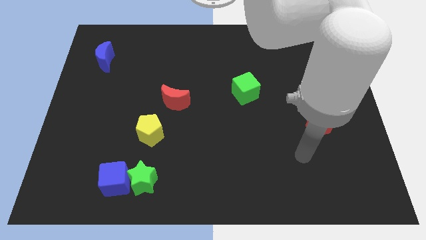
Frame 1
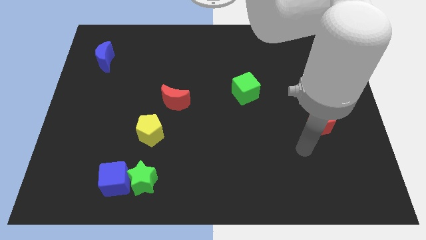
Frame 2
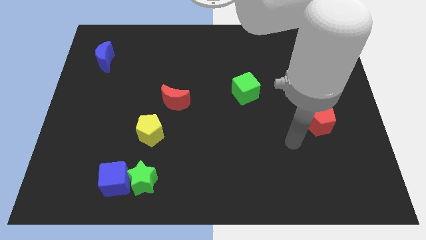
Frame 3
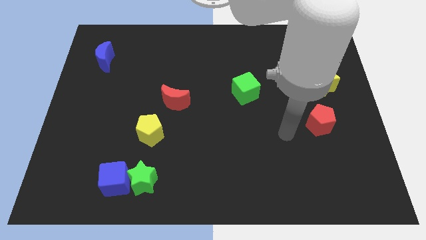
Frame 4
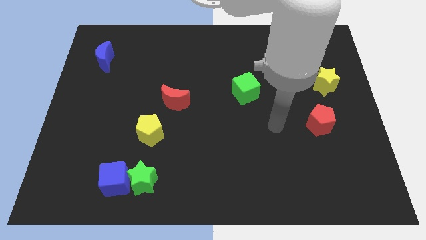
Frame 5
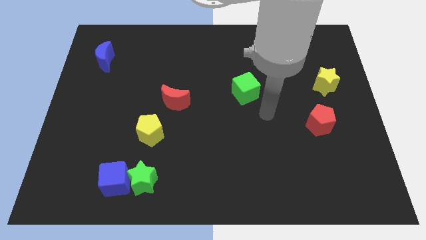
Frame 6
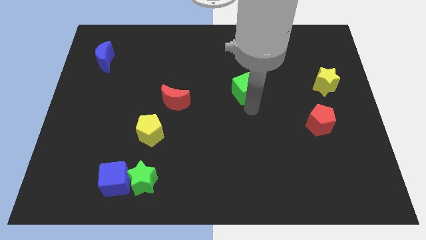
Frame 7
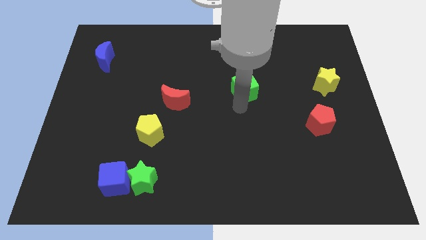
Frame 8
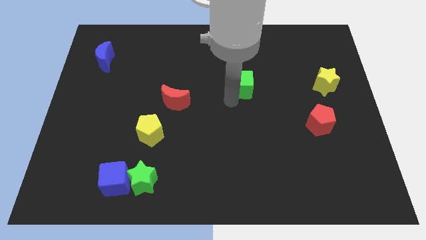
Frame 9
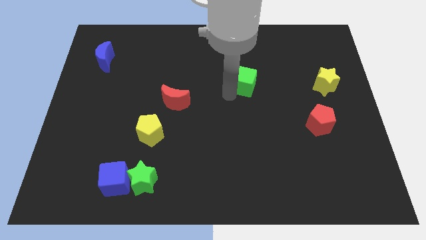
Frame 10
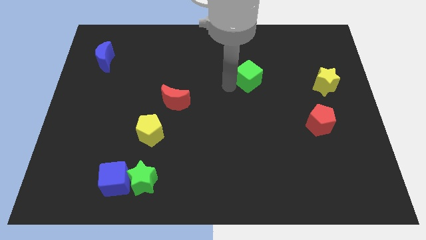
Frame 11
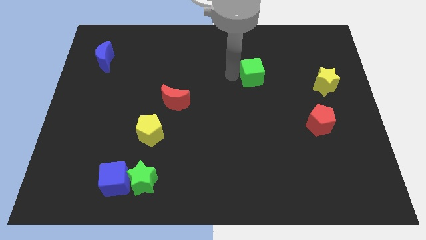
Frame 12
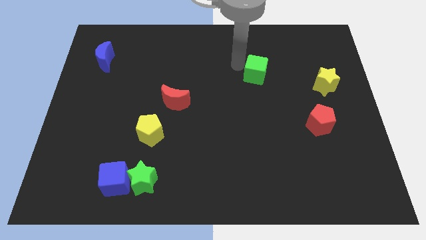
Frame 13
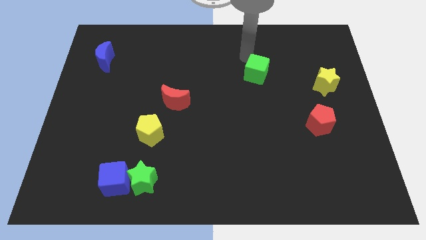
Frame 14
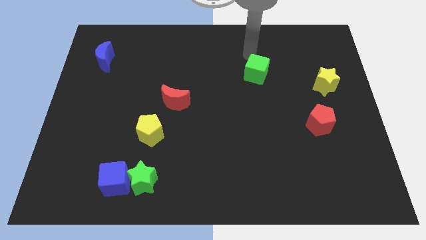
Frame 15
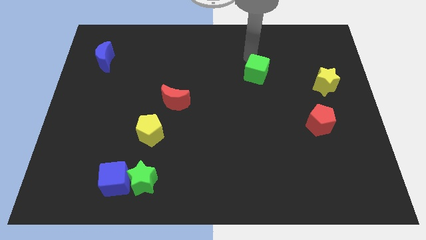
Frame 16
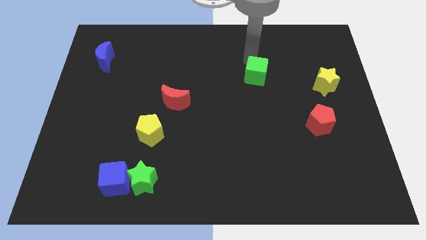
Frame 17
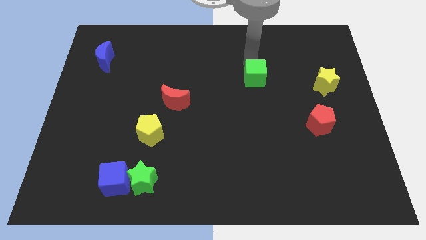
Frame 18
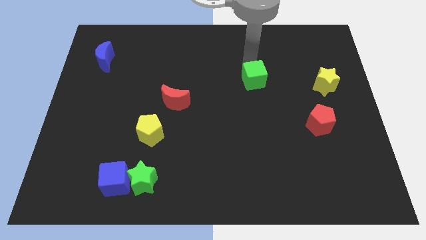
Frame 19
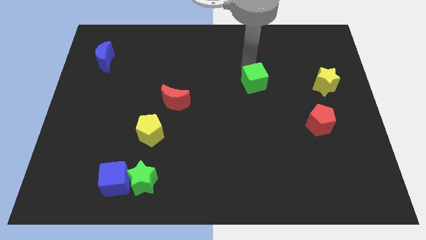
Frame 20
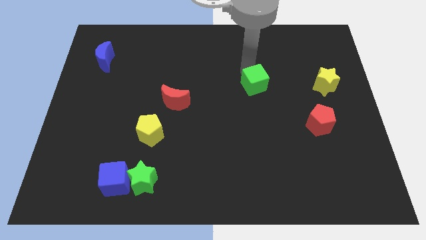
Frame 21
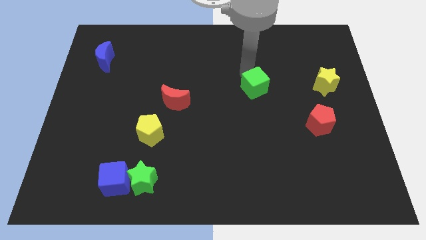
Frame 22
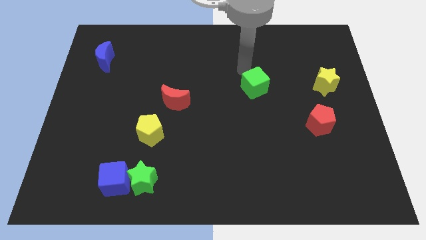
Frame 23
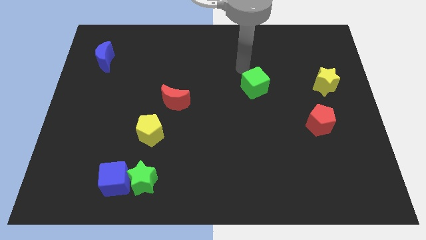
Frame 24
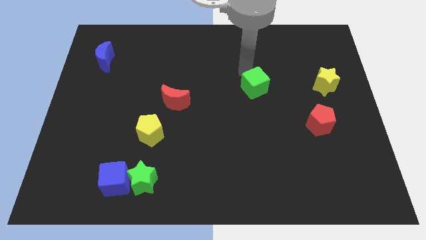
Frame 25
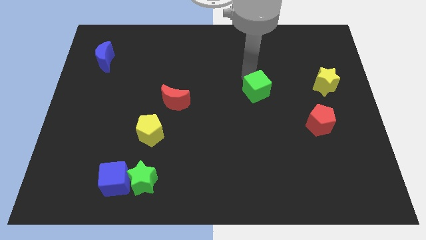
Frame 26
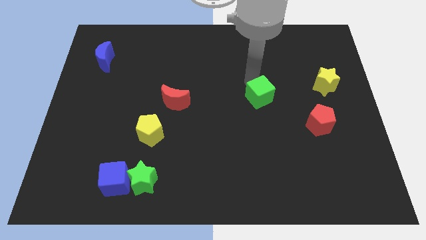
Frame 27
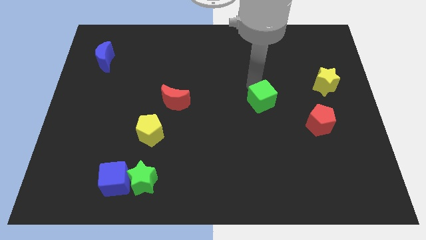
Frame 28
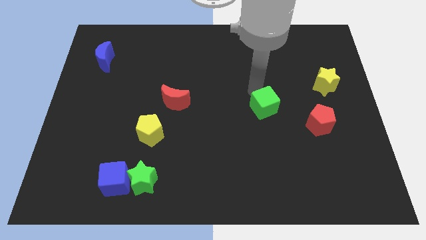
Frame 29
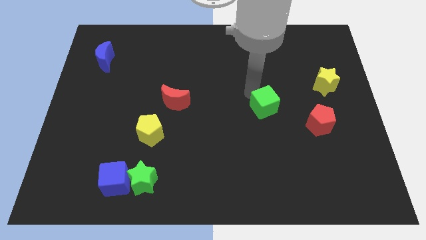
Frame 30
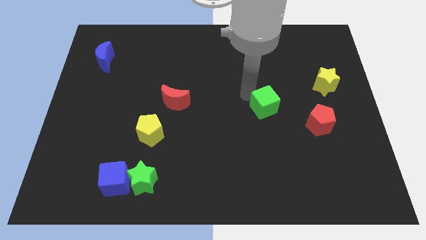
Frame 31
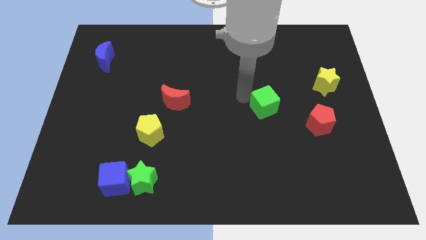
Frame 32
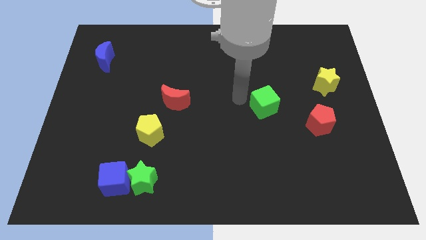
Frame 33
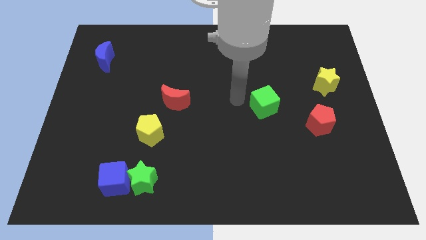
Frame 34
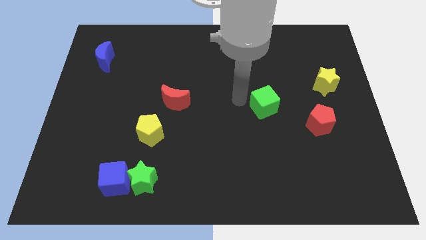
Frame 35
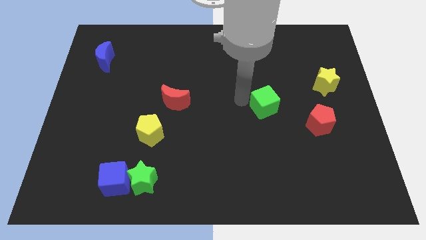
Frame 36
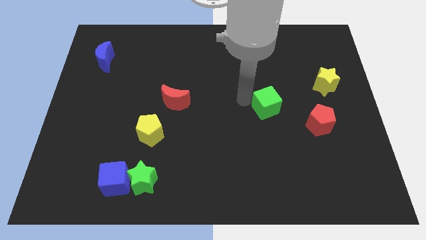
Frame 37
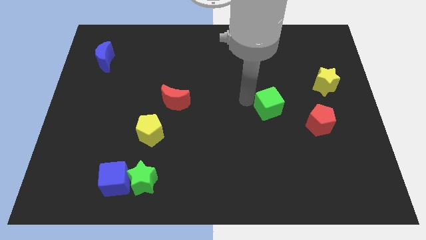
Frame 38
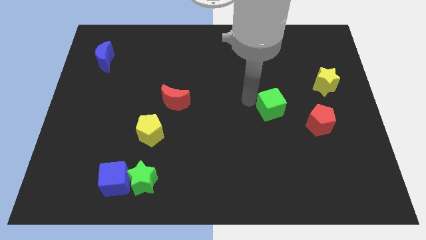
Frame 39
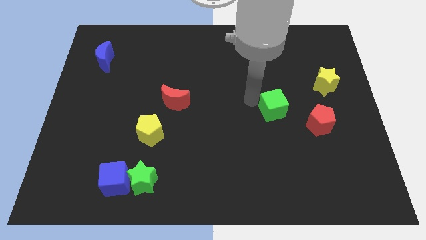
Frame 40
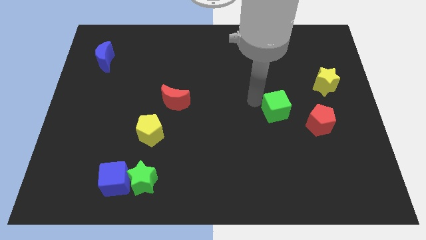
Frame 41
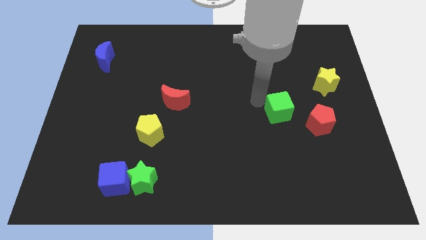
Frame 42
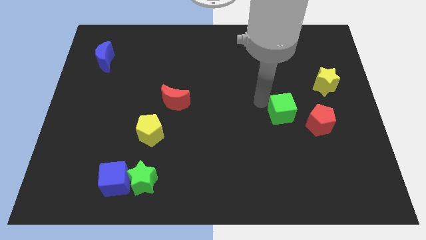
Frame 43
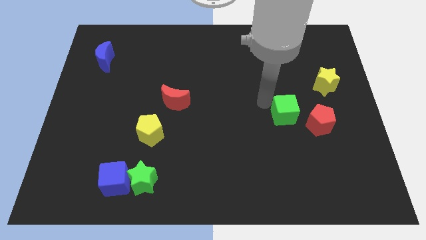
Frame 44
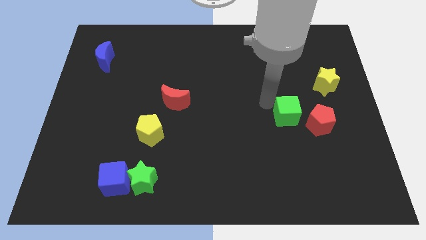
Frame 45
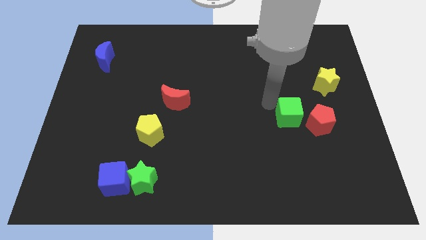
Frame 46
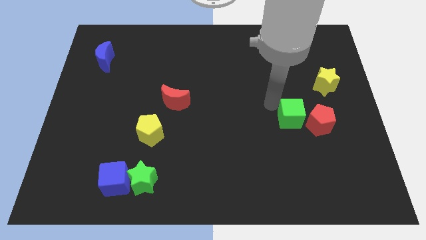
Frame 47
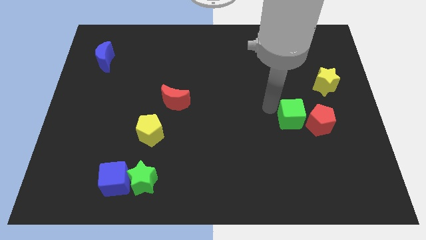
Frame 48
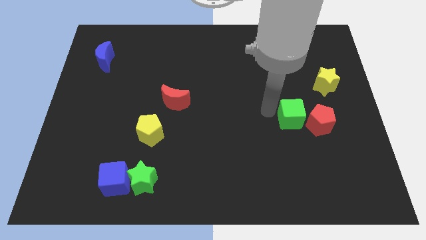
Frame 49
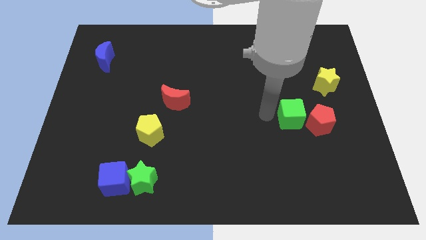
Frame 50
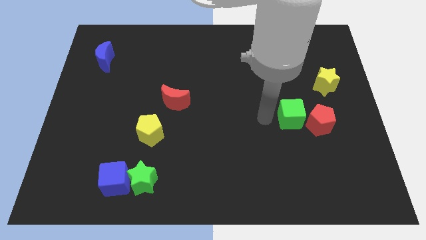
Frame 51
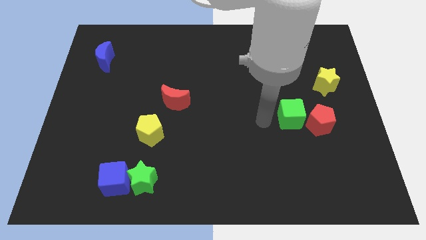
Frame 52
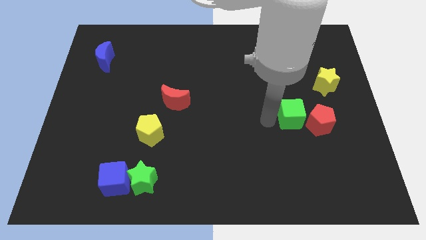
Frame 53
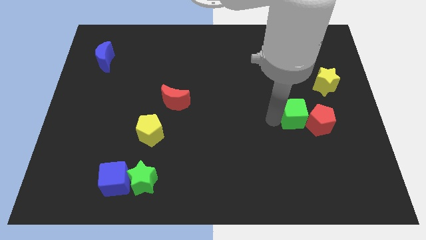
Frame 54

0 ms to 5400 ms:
push the green cube close to the red pentagon

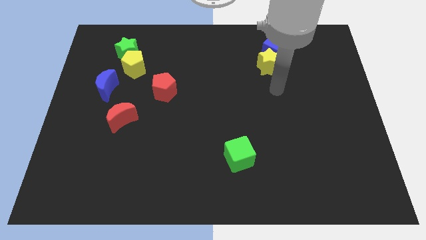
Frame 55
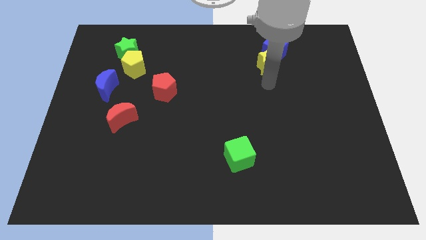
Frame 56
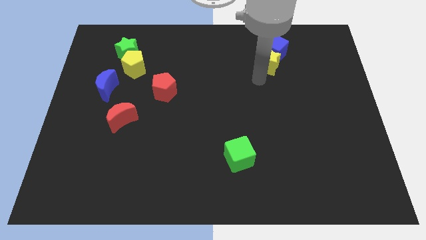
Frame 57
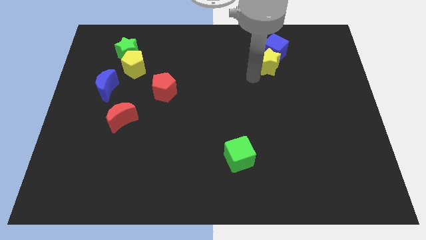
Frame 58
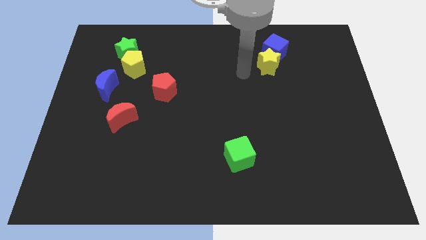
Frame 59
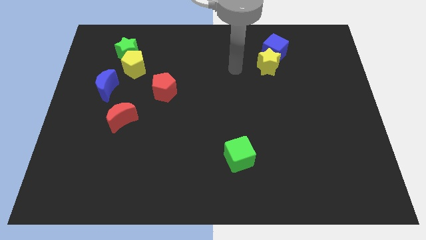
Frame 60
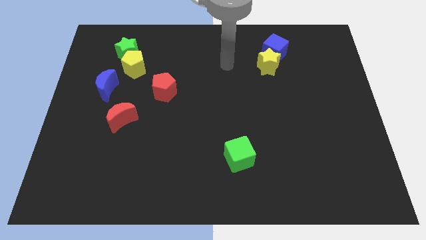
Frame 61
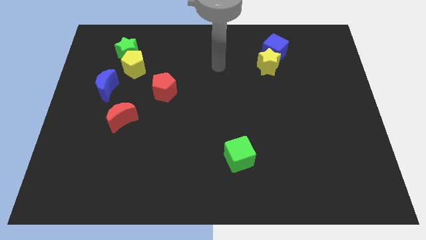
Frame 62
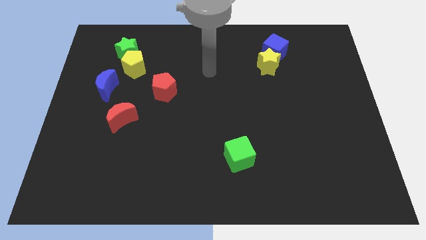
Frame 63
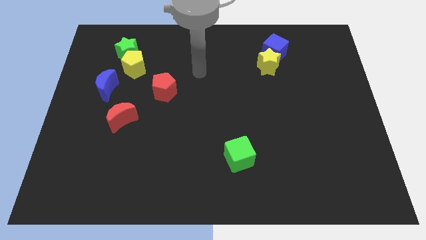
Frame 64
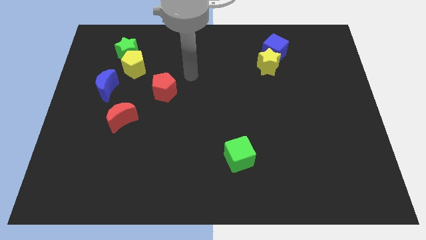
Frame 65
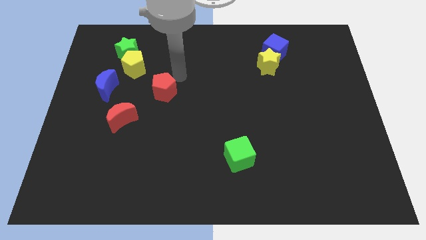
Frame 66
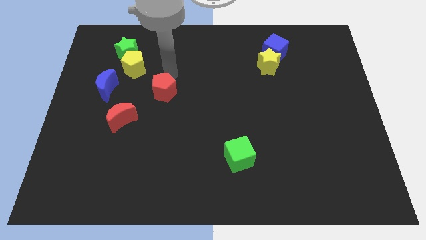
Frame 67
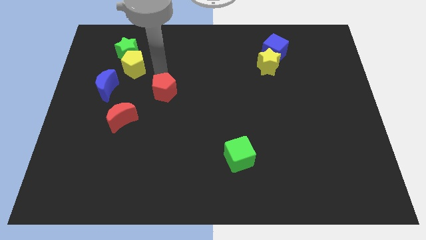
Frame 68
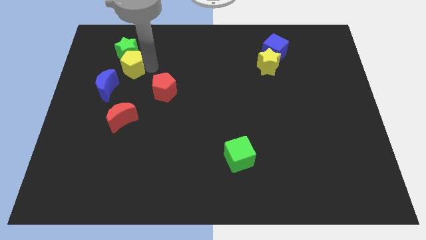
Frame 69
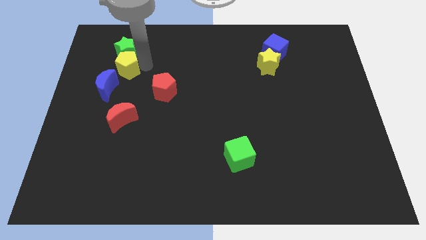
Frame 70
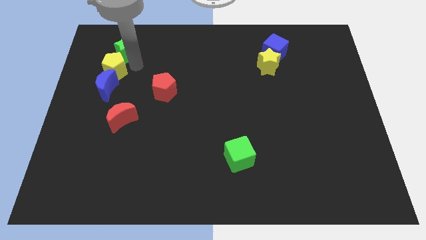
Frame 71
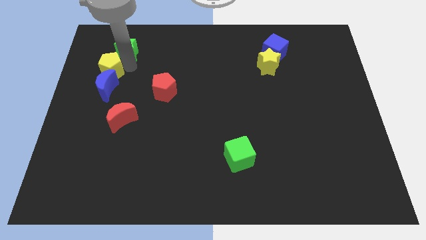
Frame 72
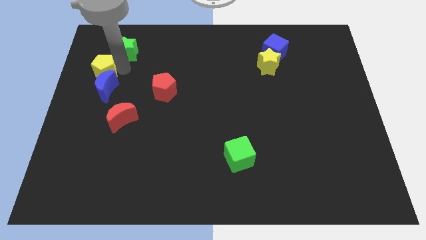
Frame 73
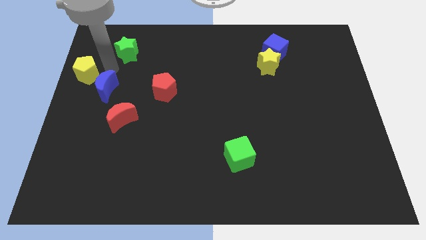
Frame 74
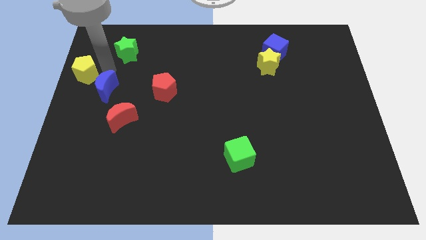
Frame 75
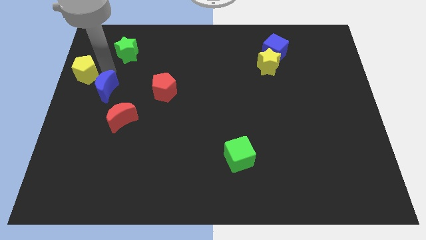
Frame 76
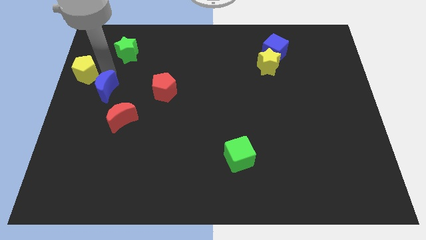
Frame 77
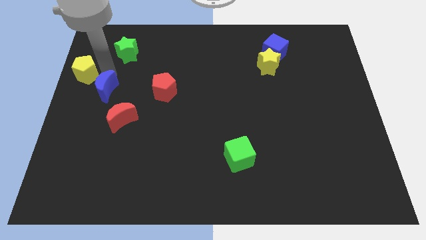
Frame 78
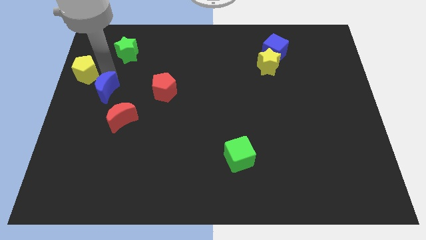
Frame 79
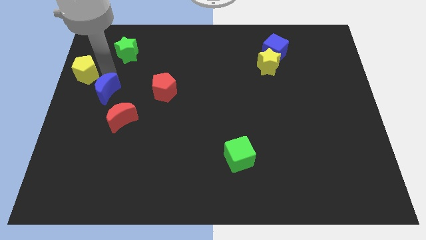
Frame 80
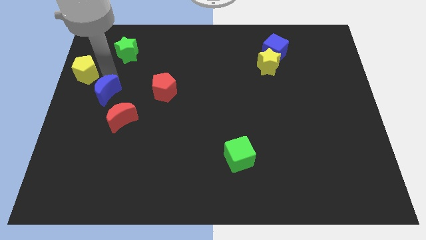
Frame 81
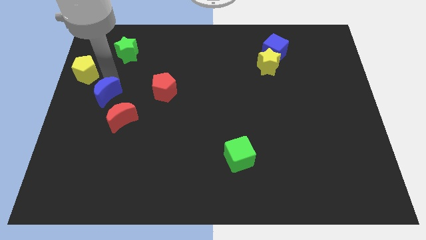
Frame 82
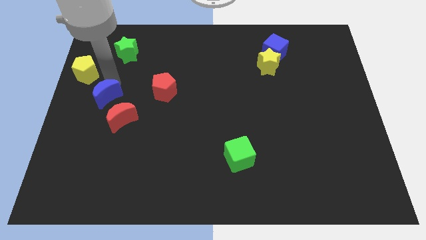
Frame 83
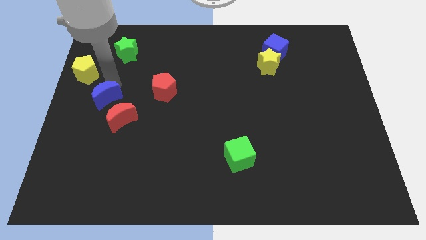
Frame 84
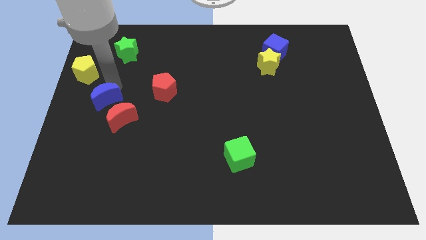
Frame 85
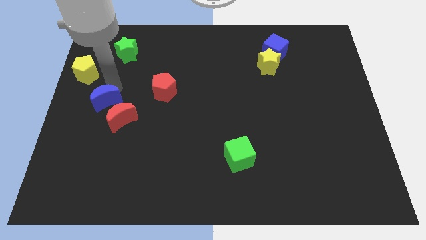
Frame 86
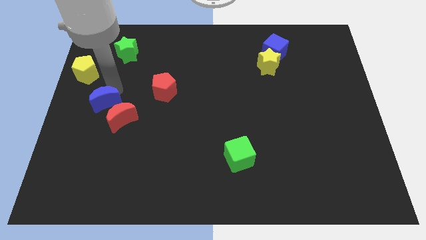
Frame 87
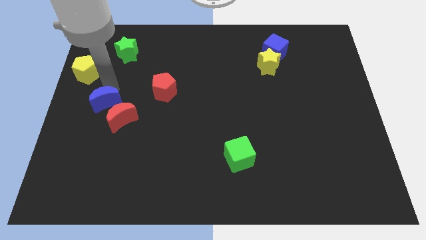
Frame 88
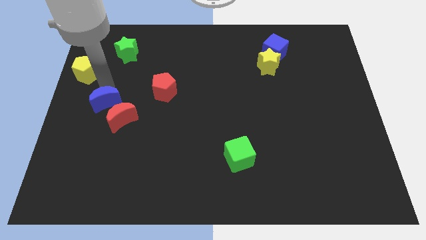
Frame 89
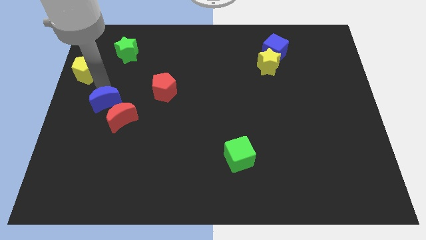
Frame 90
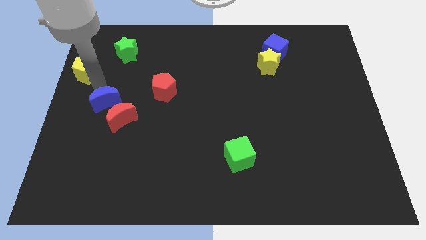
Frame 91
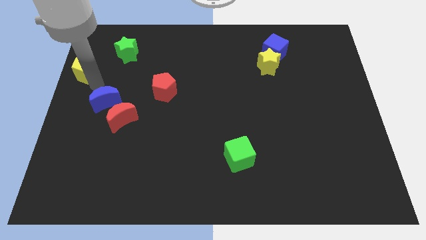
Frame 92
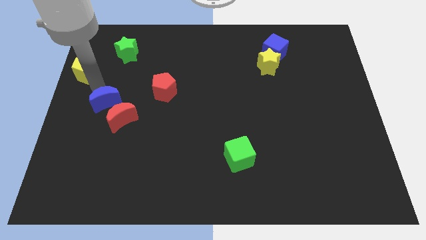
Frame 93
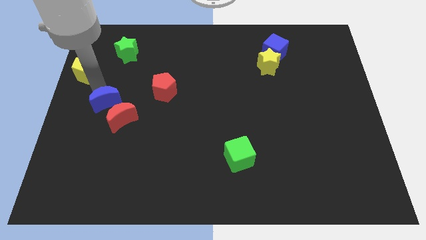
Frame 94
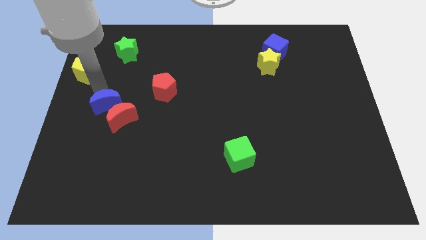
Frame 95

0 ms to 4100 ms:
push the blue moon to the red moon
